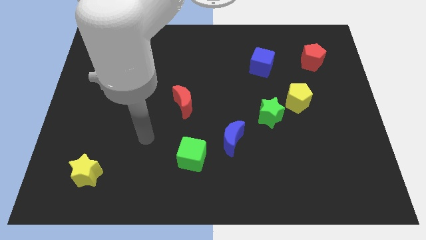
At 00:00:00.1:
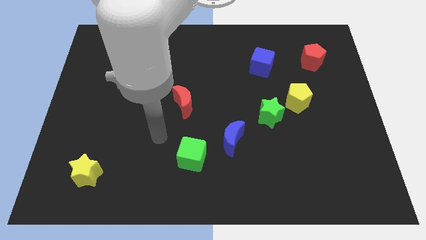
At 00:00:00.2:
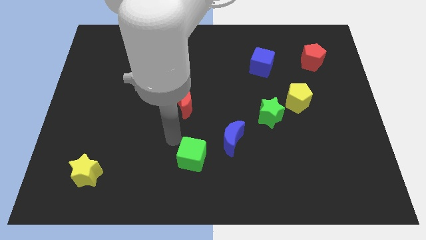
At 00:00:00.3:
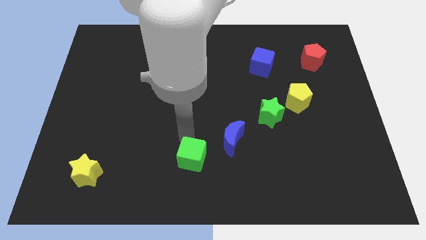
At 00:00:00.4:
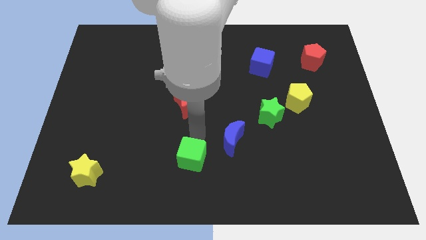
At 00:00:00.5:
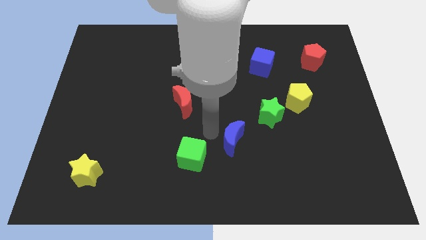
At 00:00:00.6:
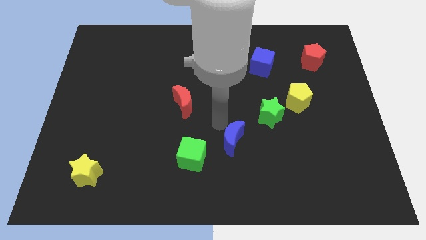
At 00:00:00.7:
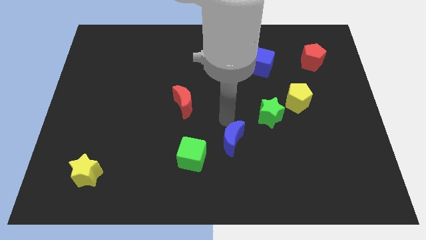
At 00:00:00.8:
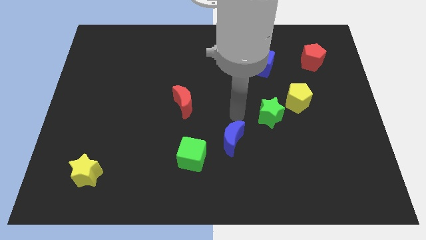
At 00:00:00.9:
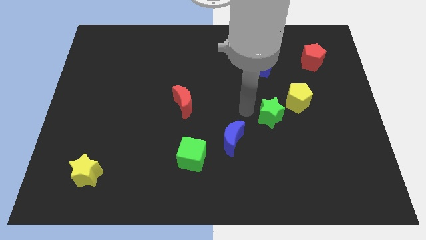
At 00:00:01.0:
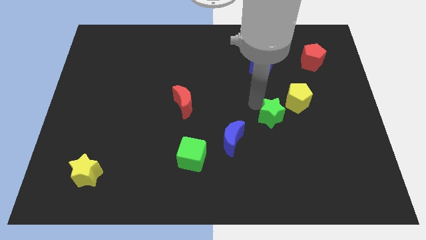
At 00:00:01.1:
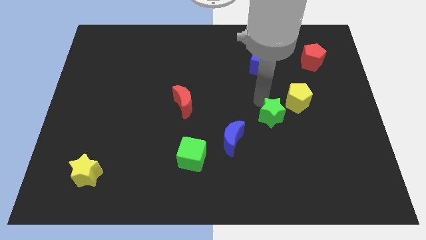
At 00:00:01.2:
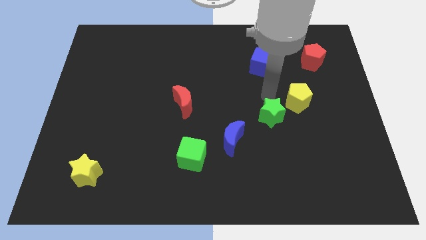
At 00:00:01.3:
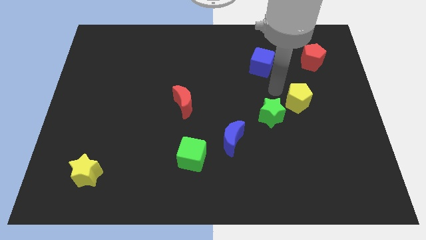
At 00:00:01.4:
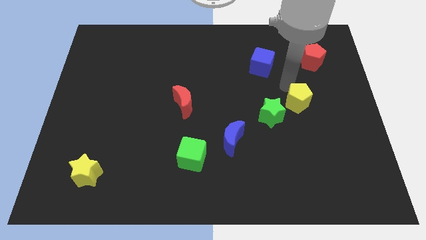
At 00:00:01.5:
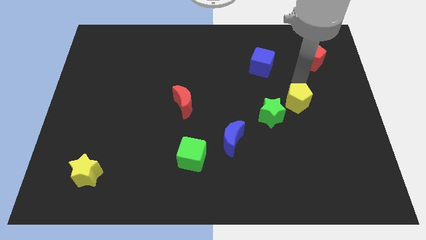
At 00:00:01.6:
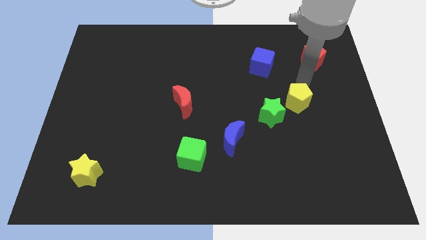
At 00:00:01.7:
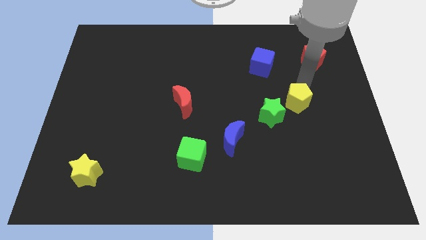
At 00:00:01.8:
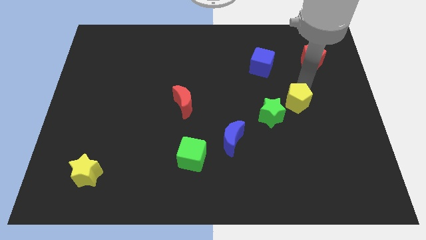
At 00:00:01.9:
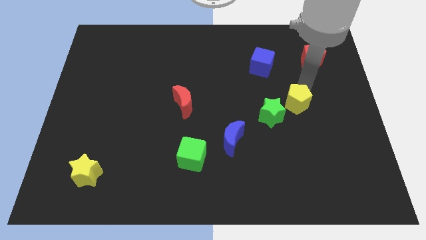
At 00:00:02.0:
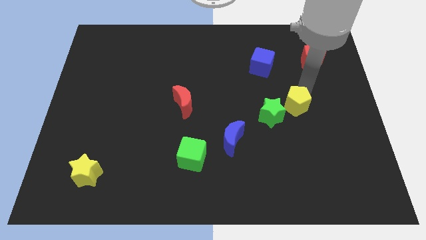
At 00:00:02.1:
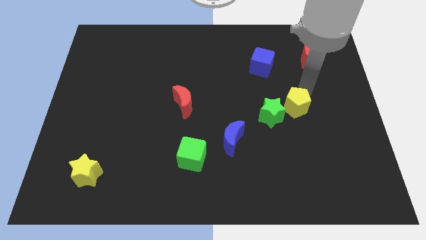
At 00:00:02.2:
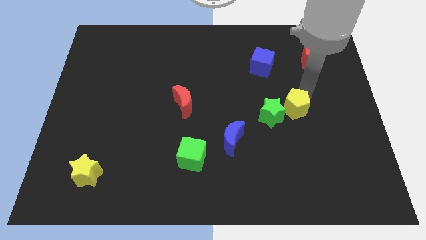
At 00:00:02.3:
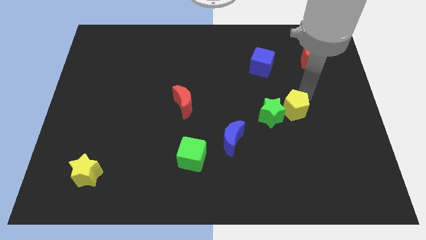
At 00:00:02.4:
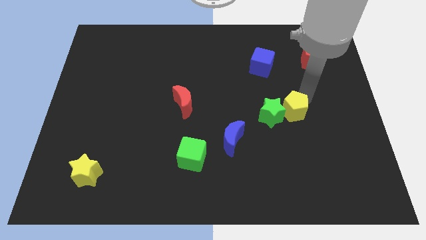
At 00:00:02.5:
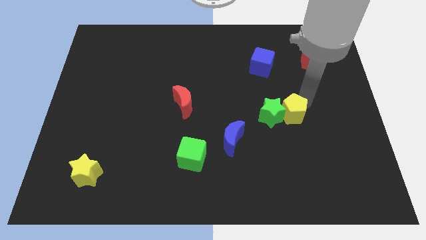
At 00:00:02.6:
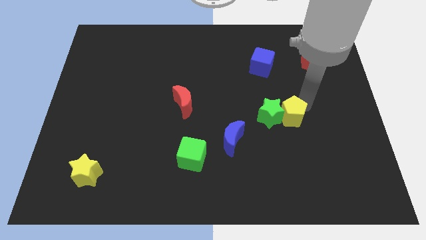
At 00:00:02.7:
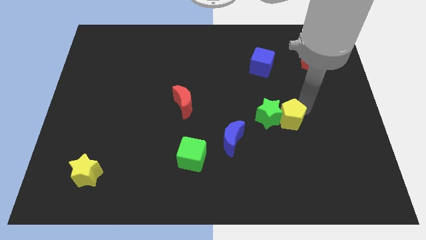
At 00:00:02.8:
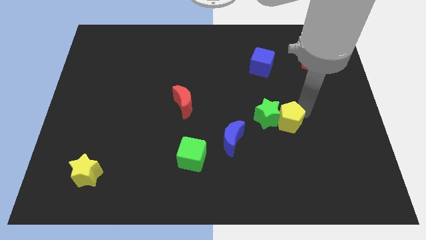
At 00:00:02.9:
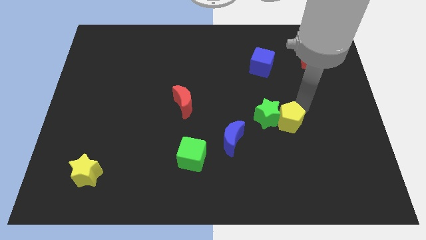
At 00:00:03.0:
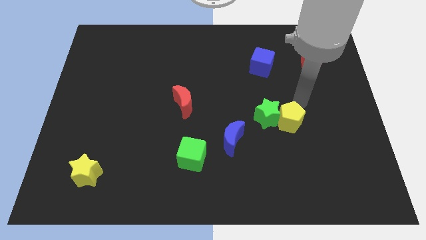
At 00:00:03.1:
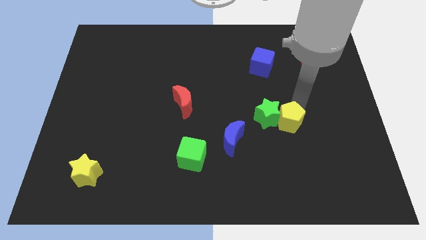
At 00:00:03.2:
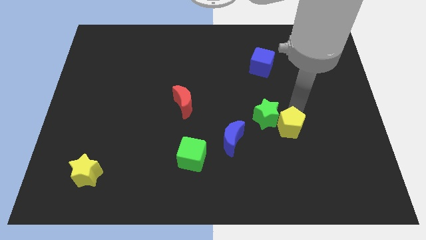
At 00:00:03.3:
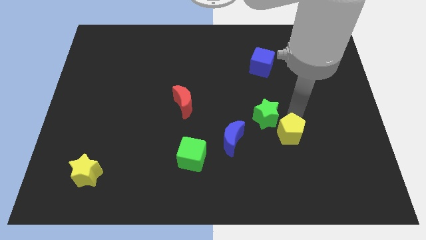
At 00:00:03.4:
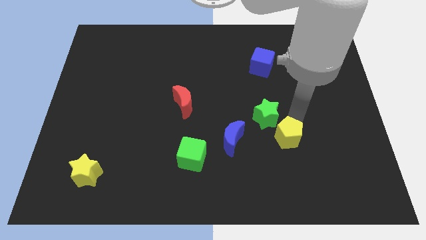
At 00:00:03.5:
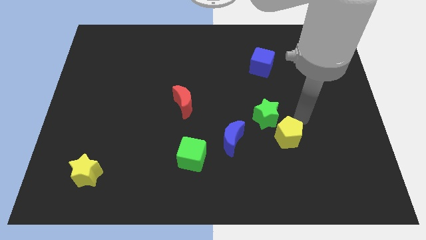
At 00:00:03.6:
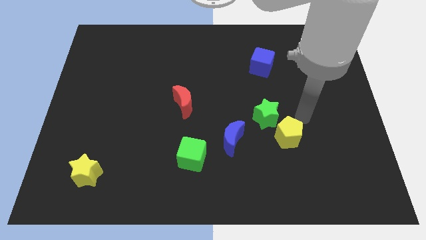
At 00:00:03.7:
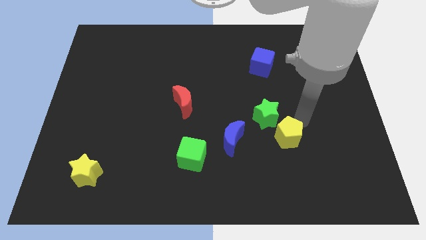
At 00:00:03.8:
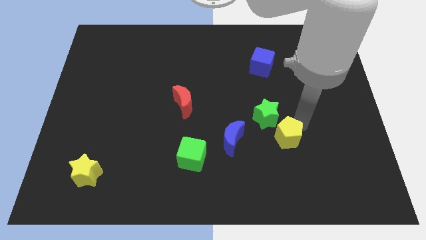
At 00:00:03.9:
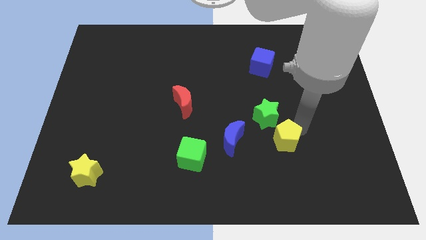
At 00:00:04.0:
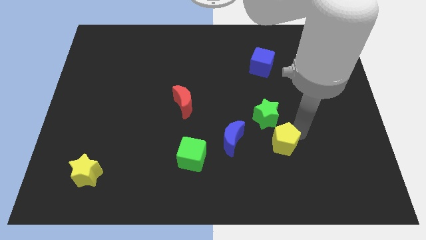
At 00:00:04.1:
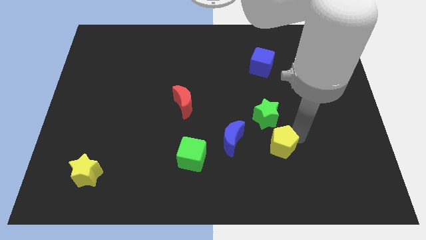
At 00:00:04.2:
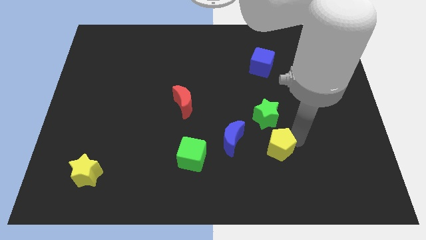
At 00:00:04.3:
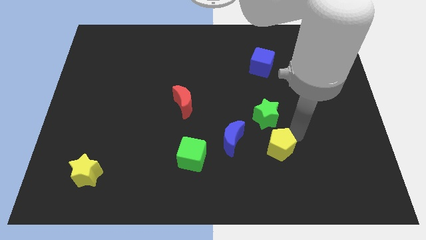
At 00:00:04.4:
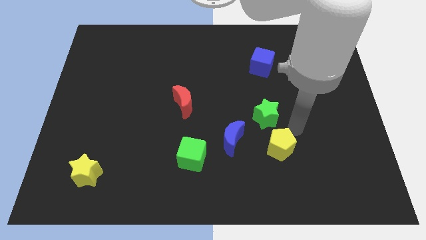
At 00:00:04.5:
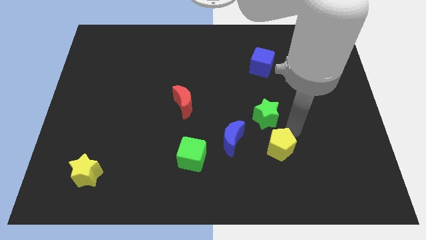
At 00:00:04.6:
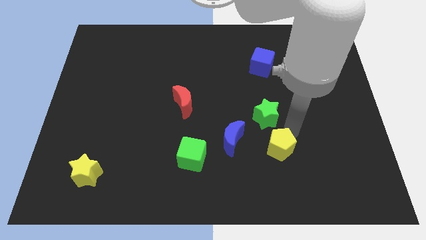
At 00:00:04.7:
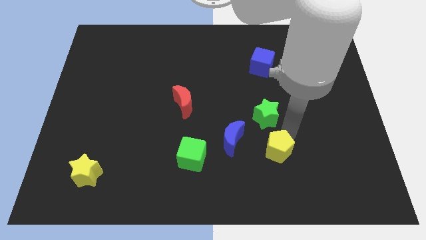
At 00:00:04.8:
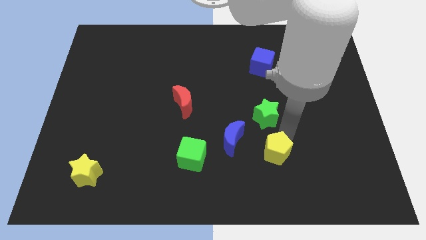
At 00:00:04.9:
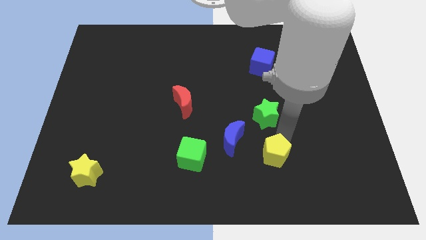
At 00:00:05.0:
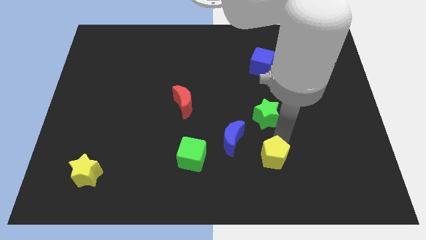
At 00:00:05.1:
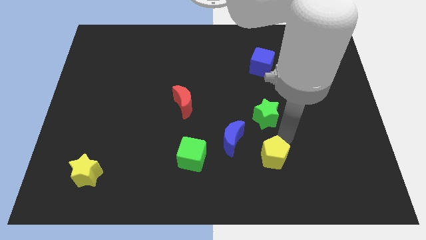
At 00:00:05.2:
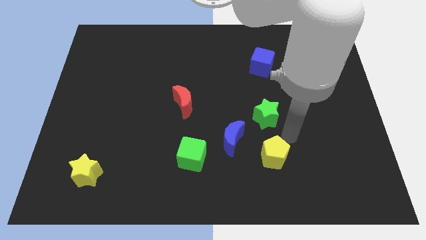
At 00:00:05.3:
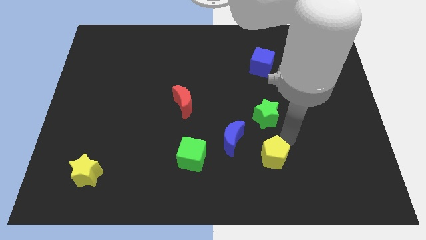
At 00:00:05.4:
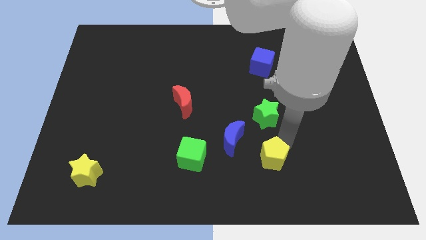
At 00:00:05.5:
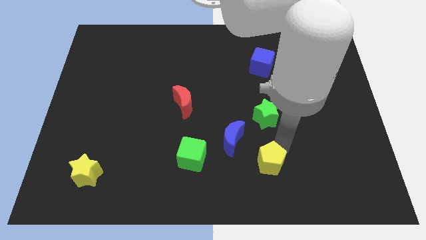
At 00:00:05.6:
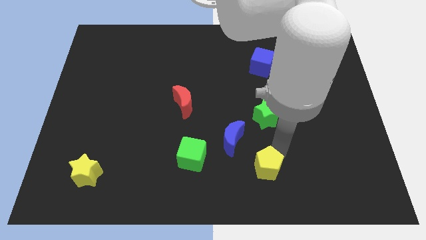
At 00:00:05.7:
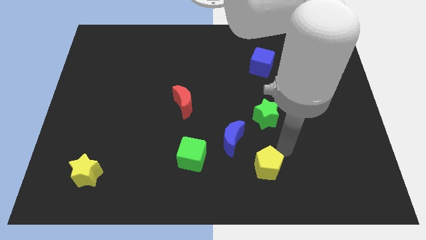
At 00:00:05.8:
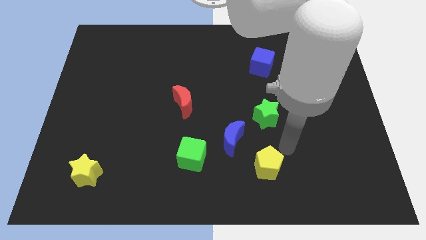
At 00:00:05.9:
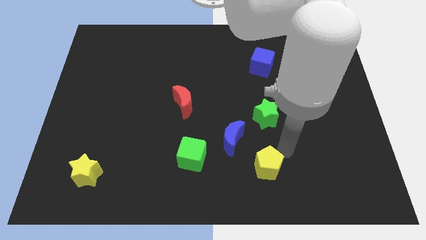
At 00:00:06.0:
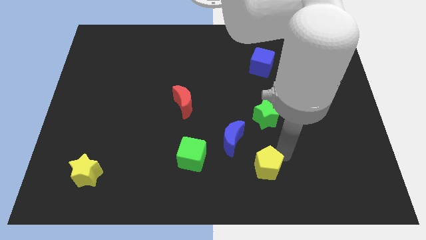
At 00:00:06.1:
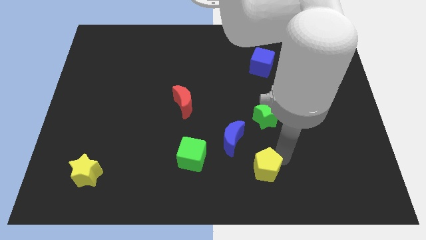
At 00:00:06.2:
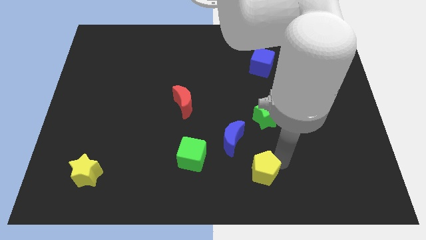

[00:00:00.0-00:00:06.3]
put the yellow pentagon to the bottom side
